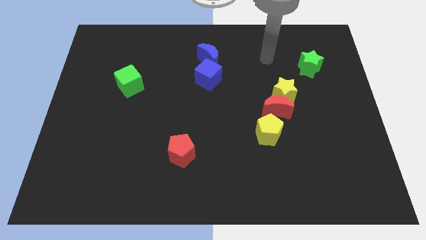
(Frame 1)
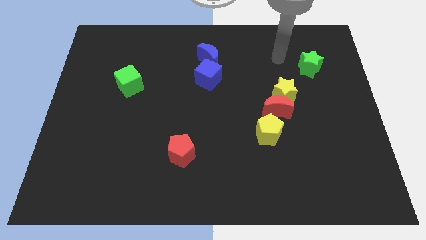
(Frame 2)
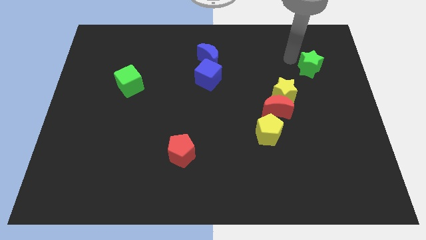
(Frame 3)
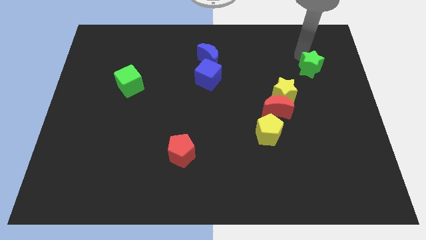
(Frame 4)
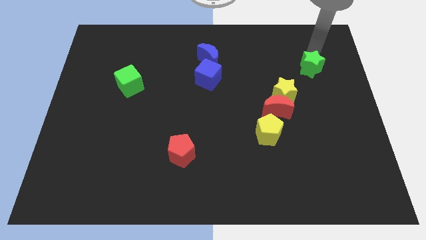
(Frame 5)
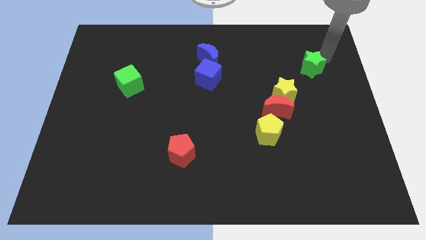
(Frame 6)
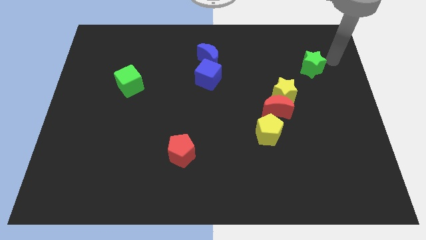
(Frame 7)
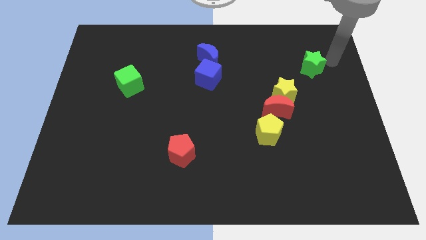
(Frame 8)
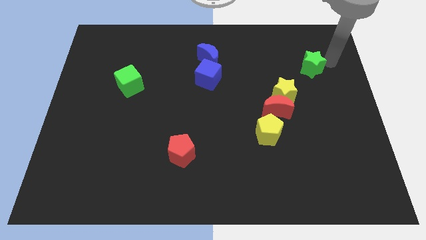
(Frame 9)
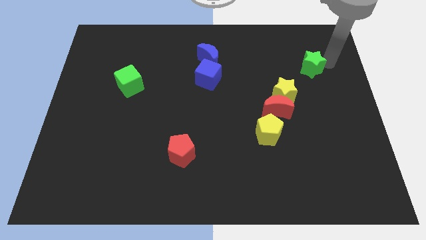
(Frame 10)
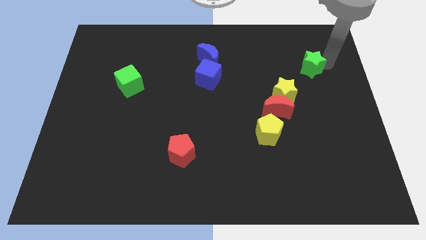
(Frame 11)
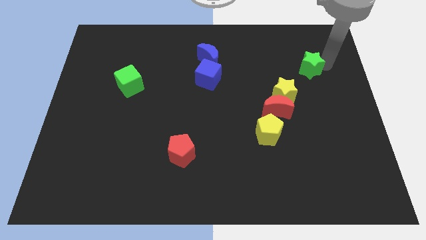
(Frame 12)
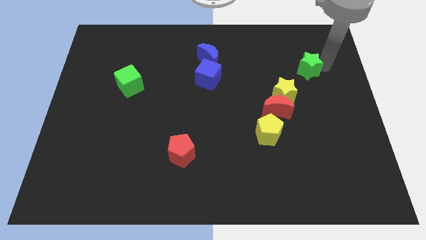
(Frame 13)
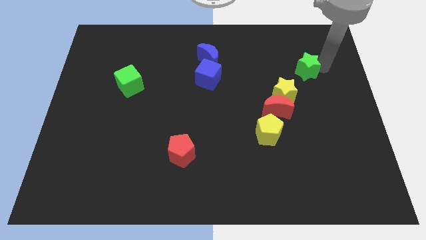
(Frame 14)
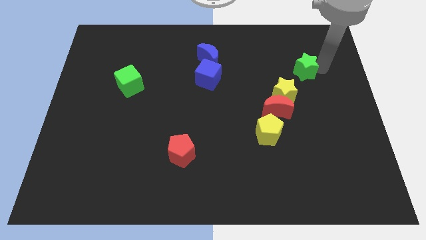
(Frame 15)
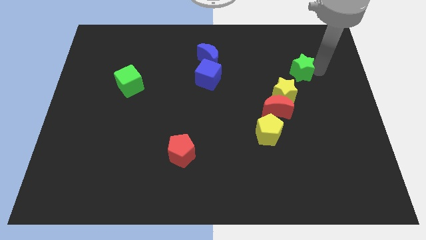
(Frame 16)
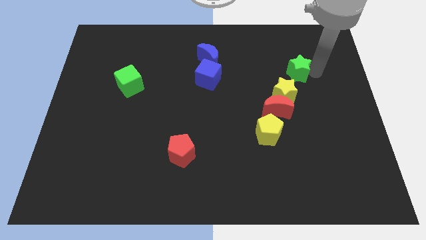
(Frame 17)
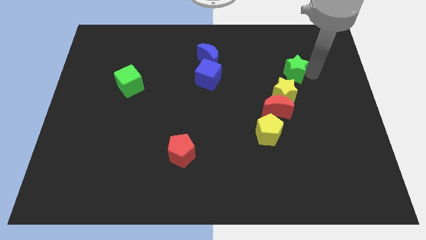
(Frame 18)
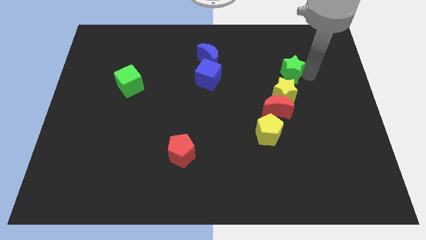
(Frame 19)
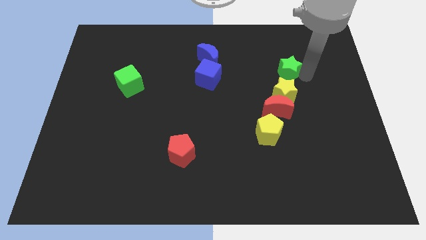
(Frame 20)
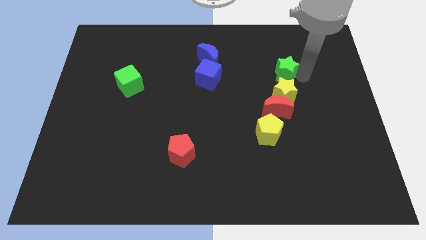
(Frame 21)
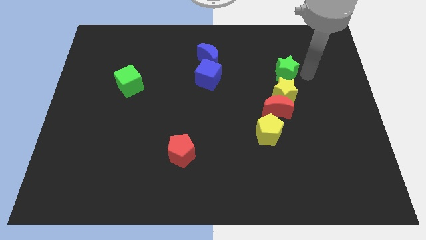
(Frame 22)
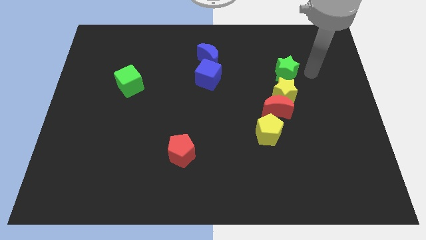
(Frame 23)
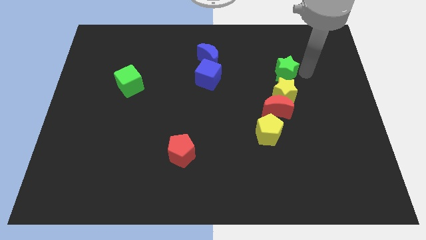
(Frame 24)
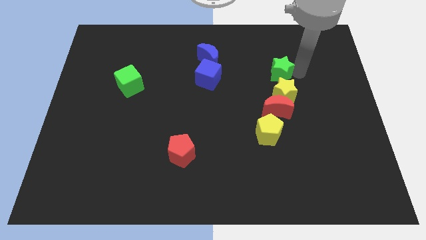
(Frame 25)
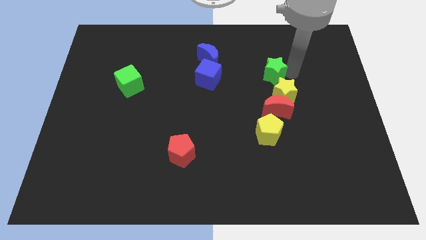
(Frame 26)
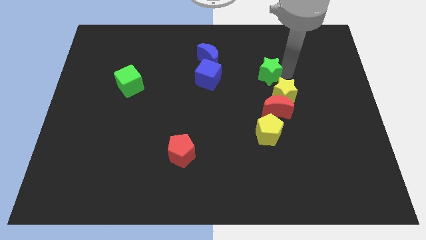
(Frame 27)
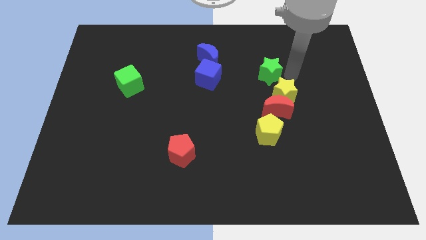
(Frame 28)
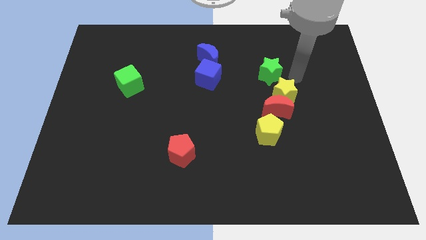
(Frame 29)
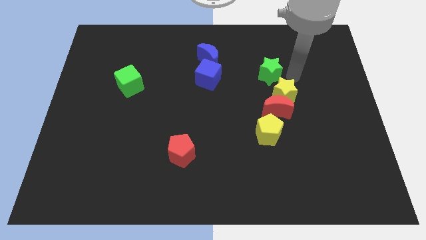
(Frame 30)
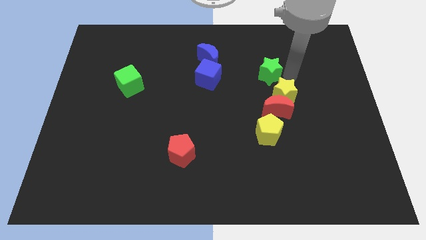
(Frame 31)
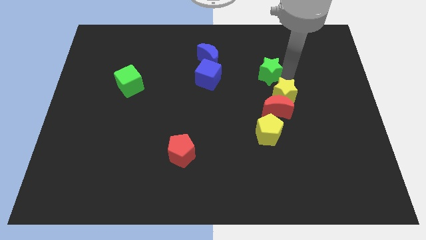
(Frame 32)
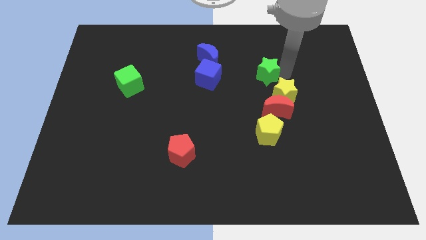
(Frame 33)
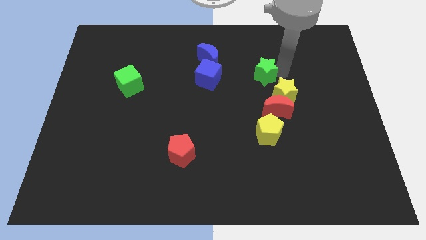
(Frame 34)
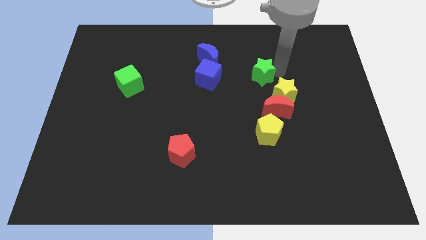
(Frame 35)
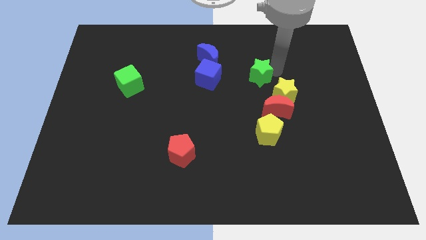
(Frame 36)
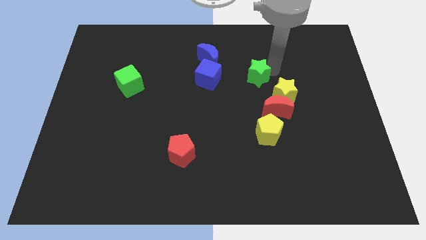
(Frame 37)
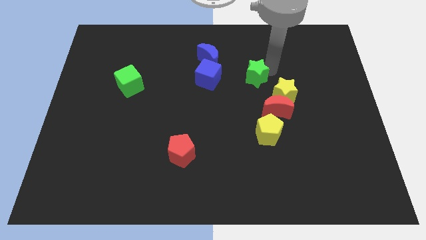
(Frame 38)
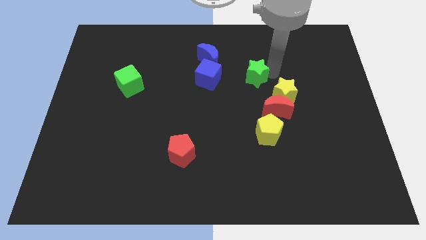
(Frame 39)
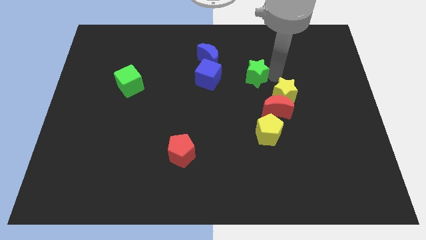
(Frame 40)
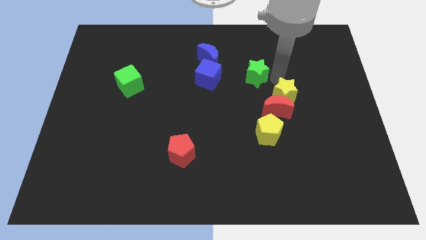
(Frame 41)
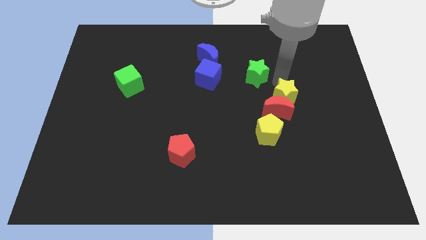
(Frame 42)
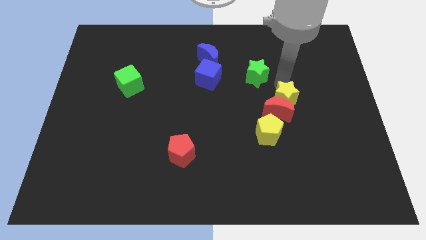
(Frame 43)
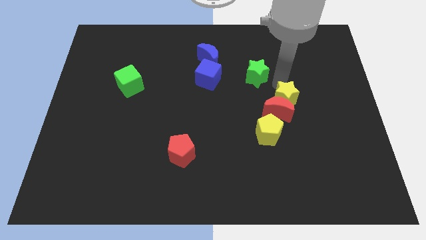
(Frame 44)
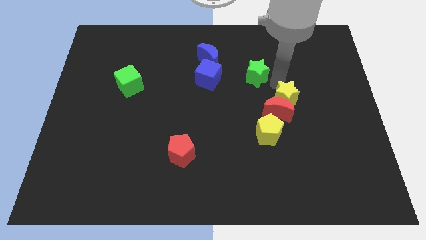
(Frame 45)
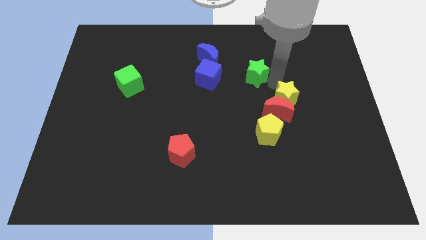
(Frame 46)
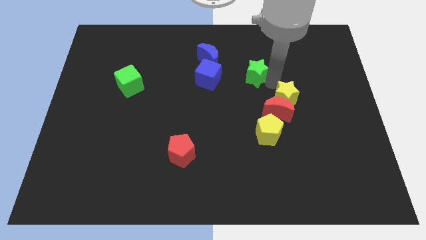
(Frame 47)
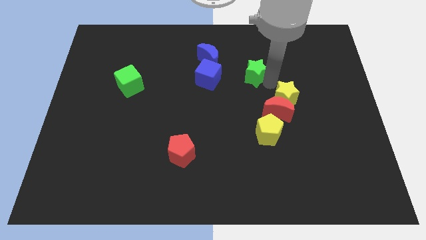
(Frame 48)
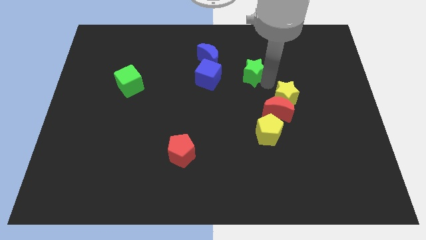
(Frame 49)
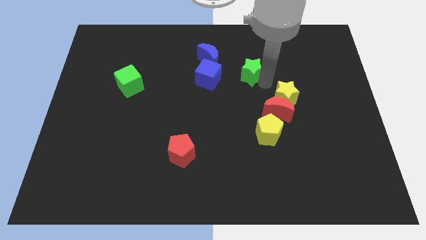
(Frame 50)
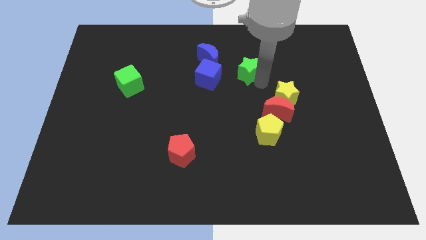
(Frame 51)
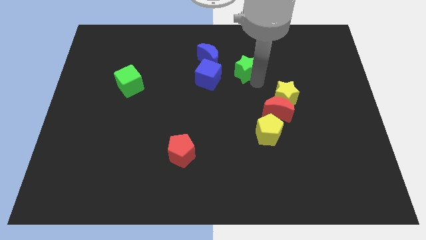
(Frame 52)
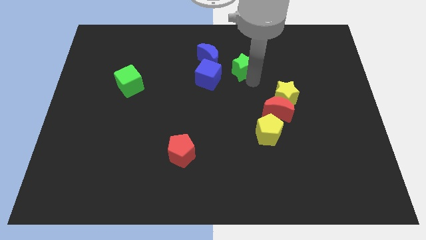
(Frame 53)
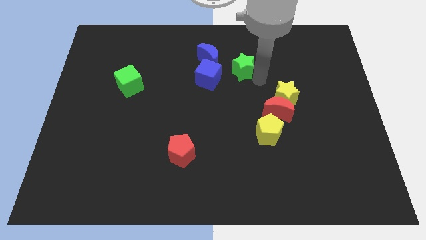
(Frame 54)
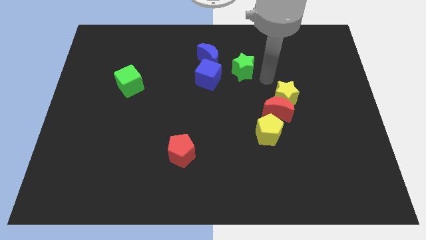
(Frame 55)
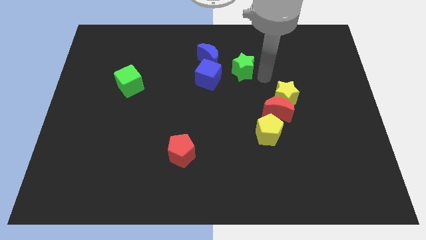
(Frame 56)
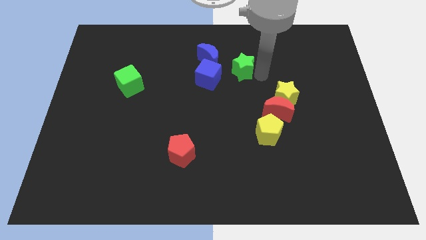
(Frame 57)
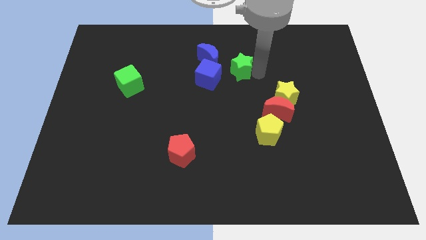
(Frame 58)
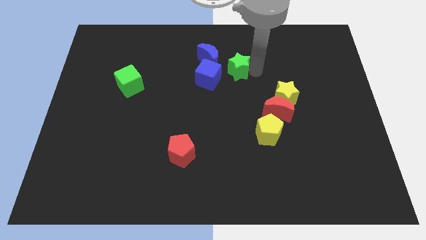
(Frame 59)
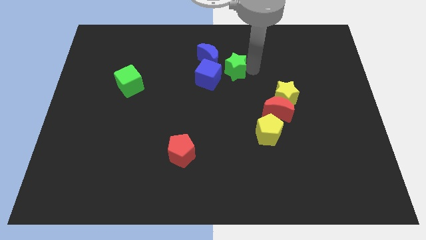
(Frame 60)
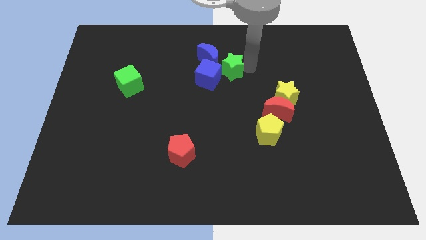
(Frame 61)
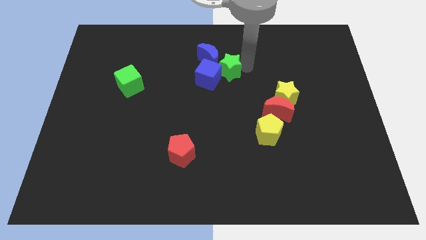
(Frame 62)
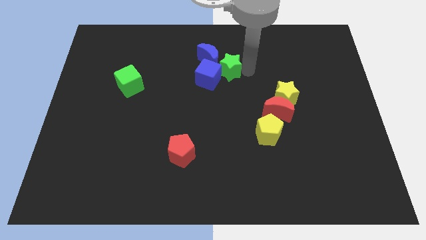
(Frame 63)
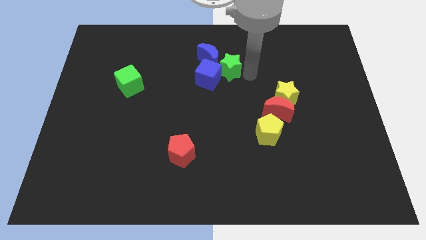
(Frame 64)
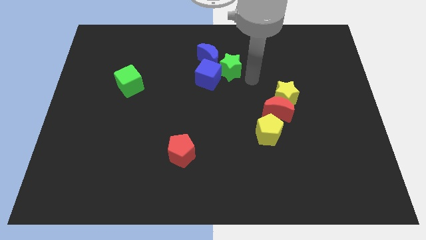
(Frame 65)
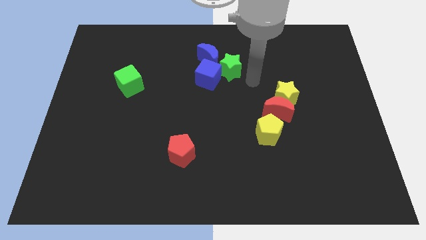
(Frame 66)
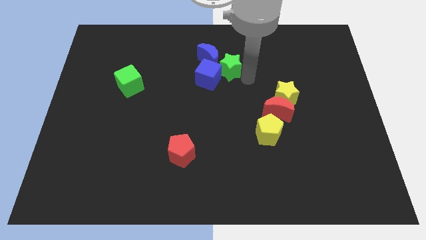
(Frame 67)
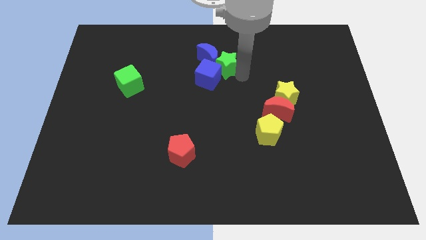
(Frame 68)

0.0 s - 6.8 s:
push the green star next to the blue moon
